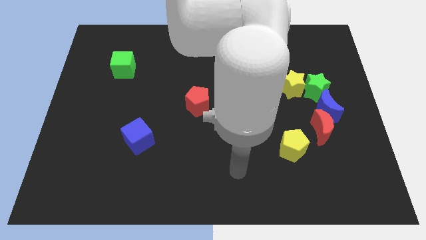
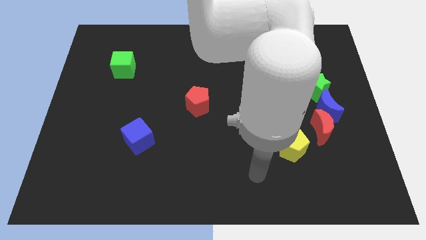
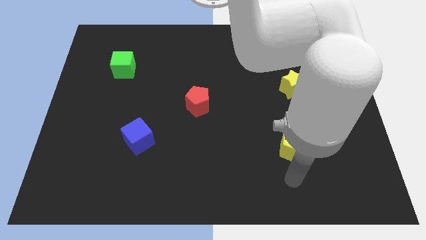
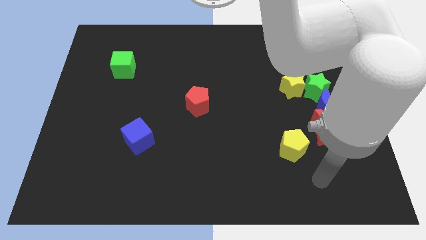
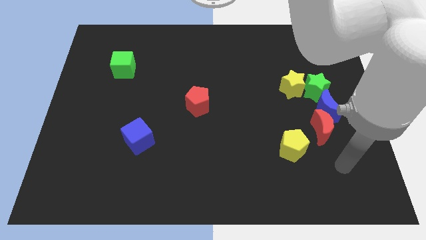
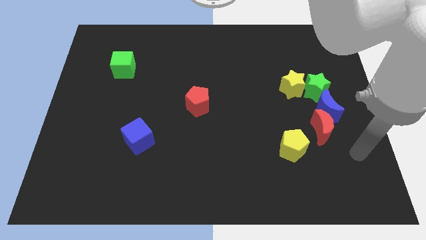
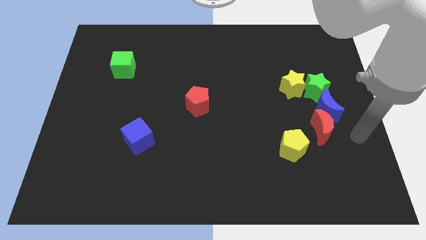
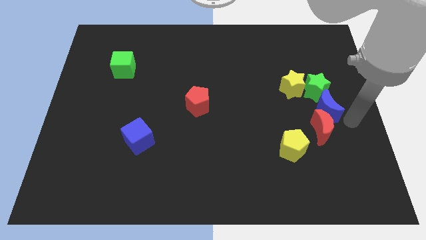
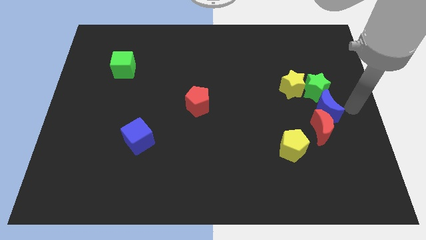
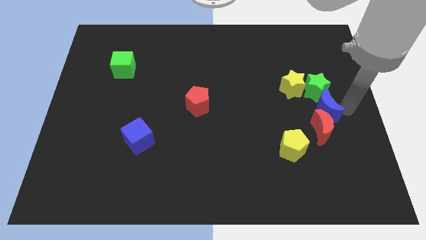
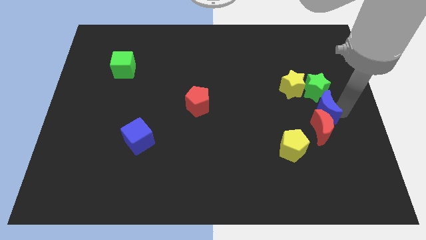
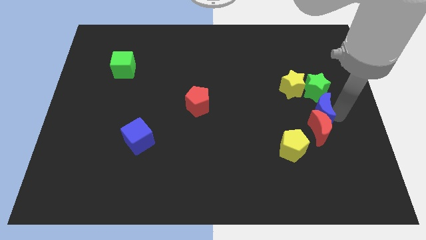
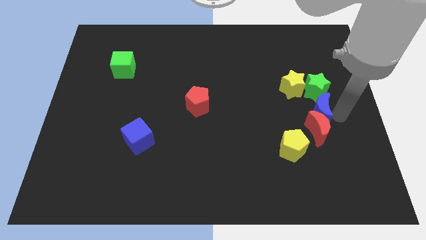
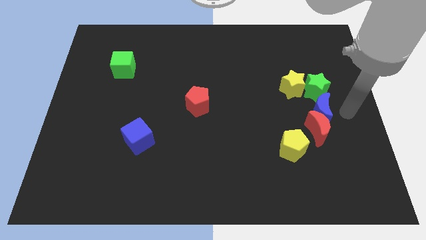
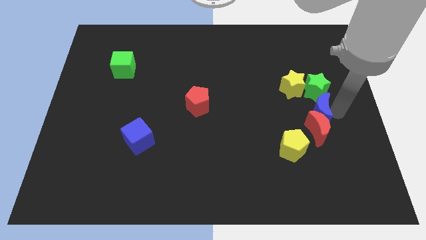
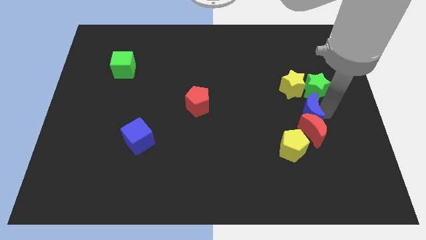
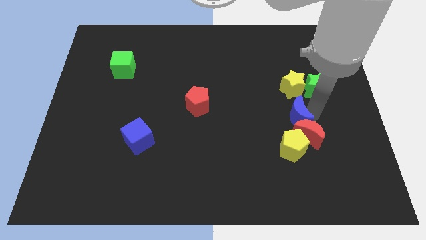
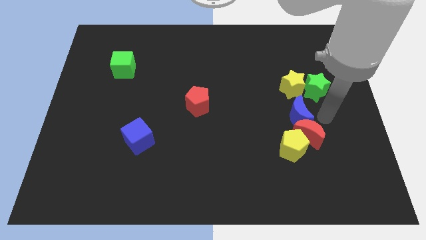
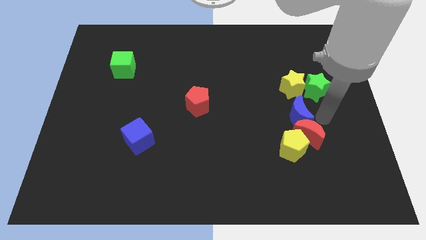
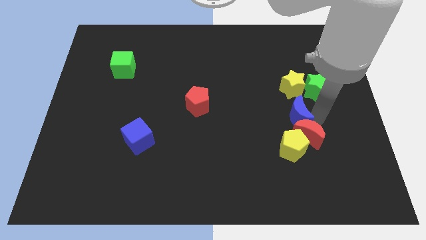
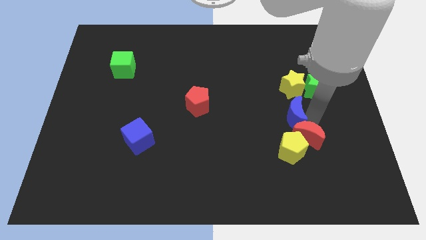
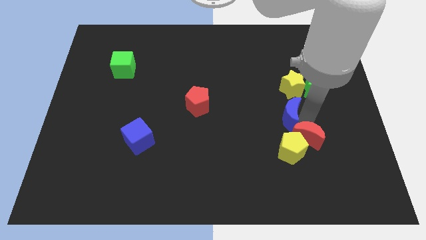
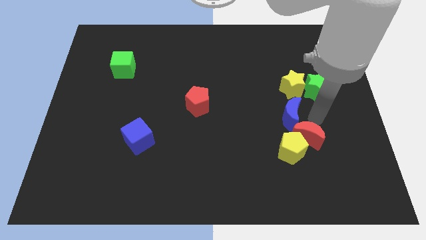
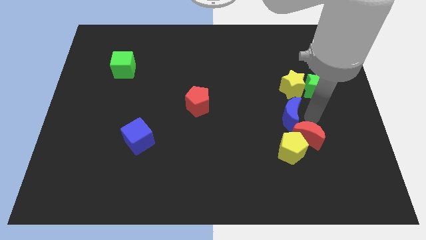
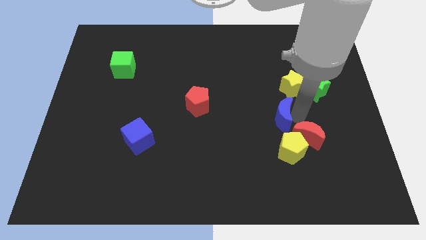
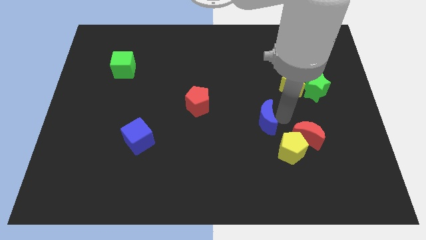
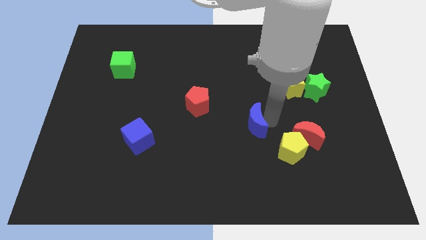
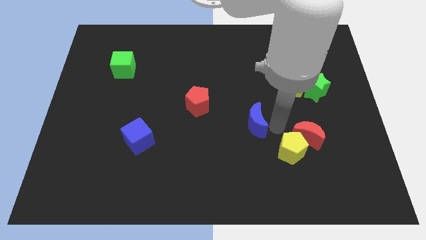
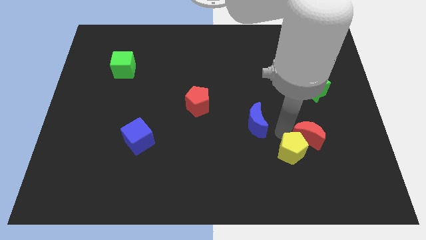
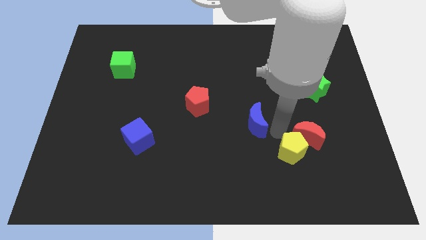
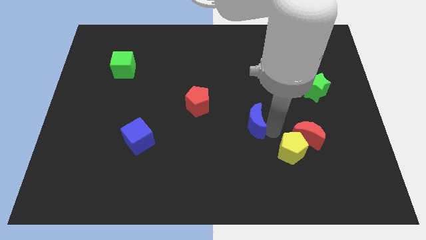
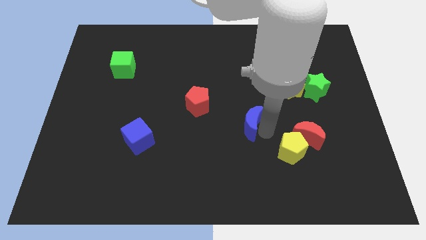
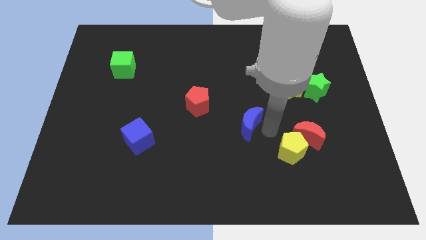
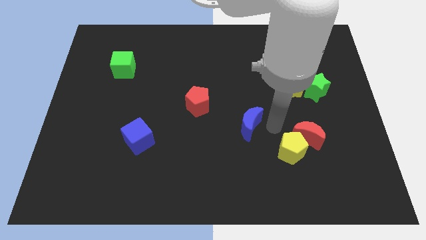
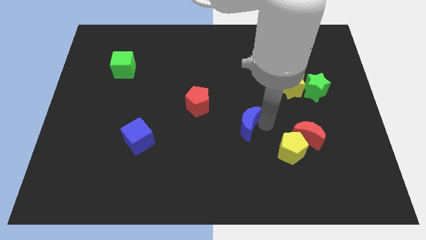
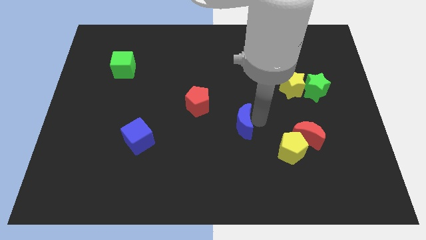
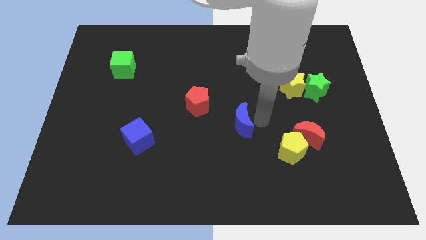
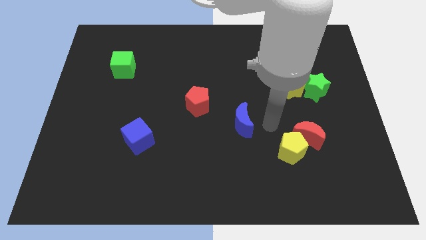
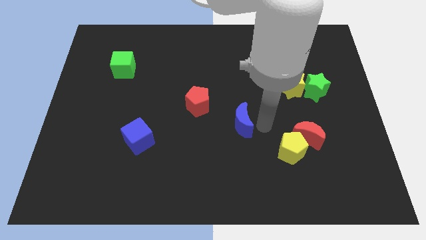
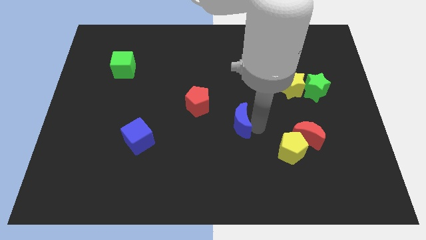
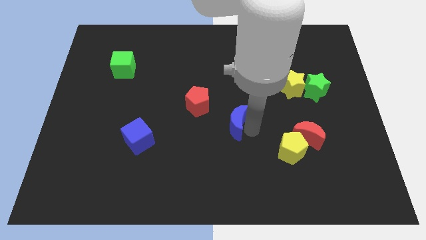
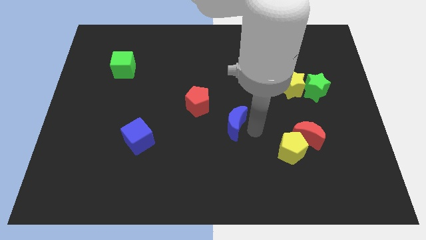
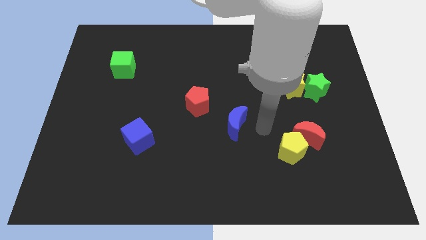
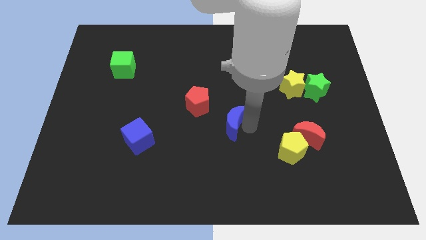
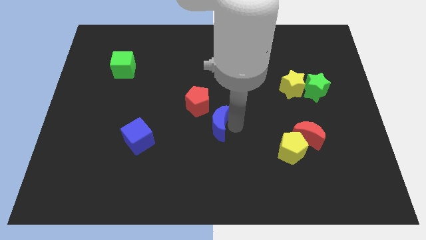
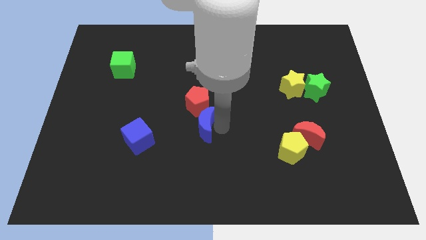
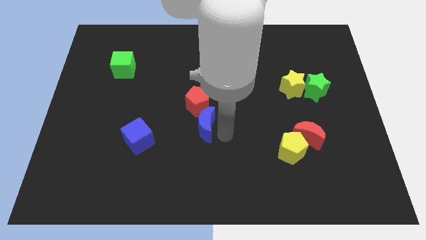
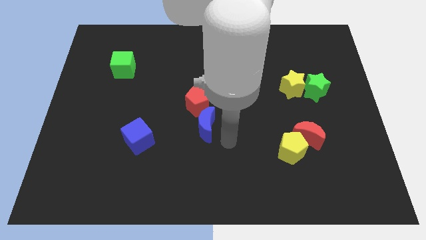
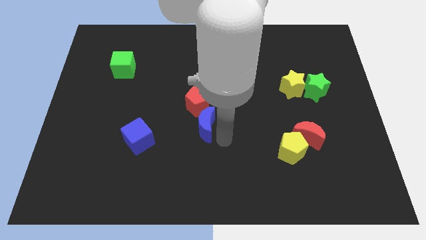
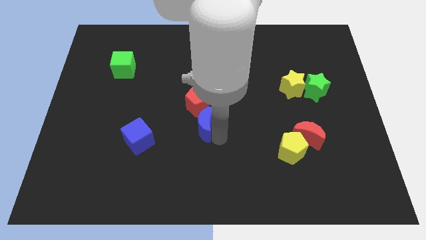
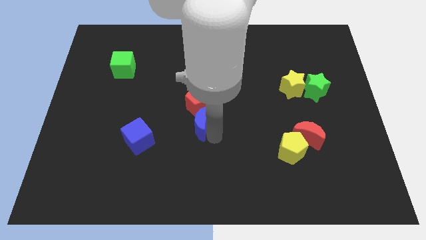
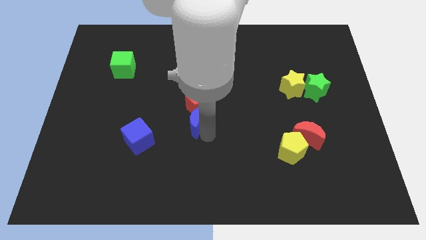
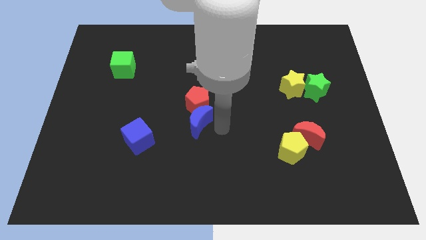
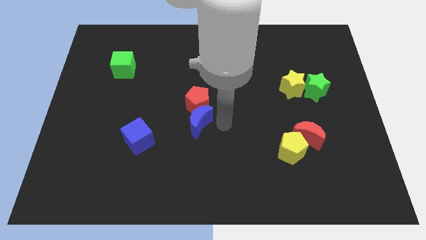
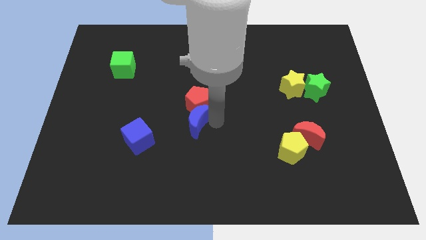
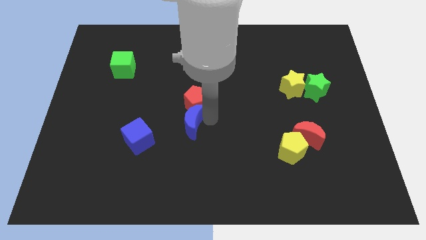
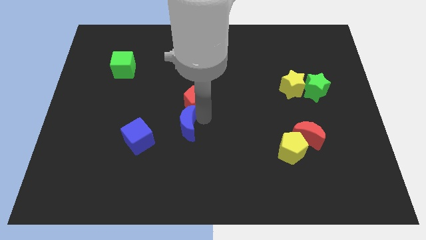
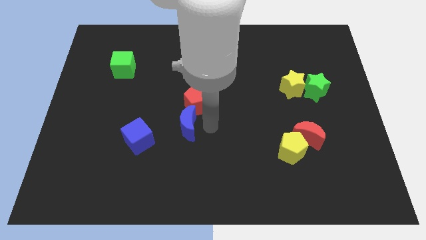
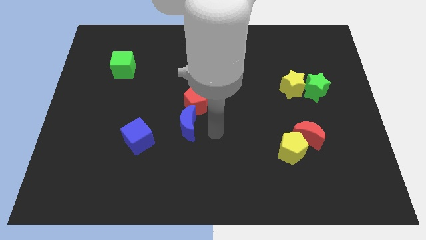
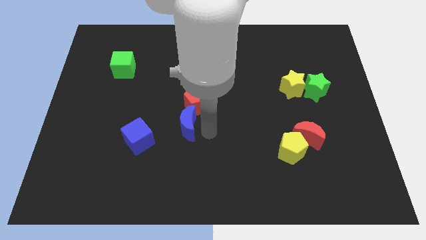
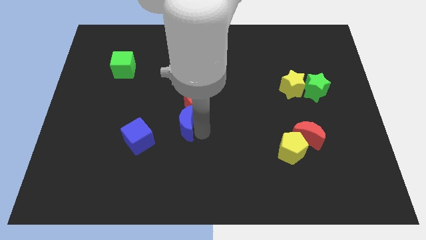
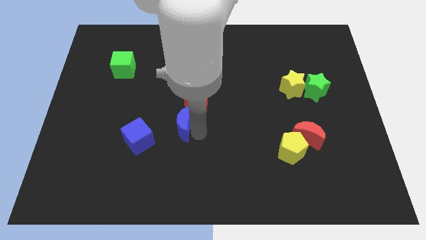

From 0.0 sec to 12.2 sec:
move the blue moon diagonally up and to the right of the blue cube

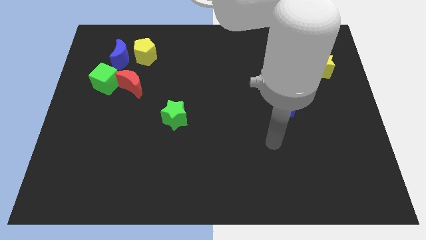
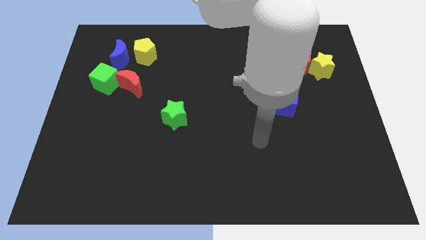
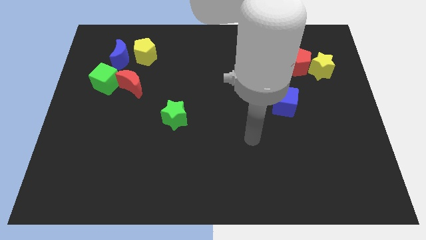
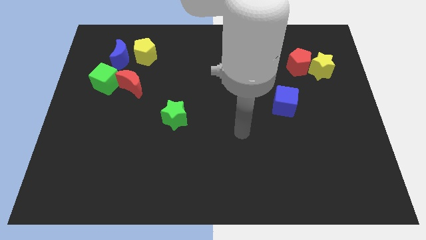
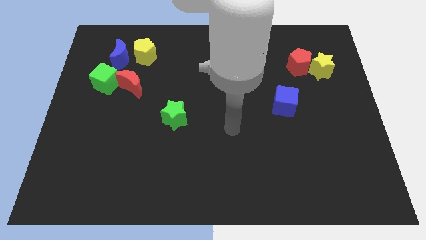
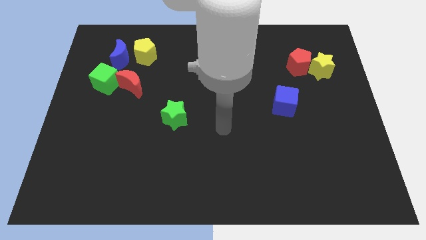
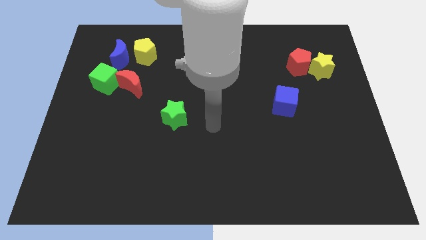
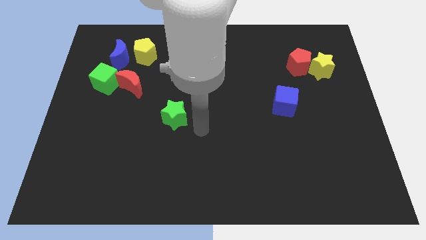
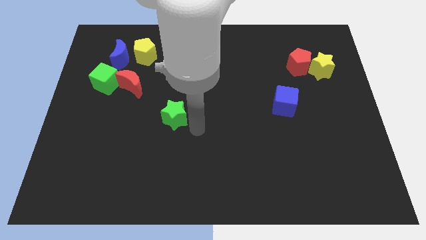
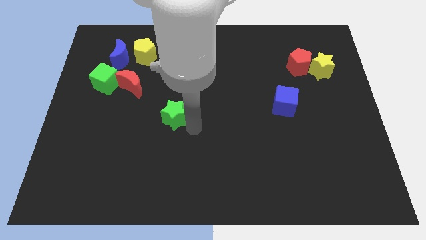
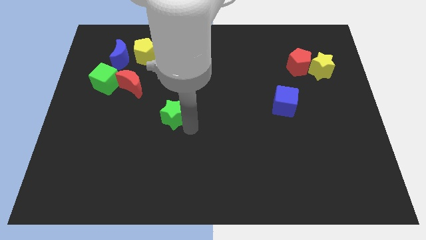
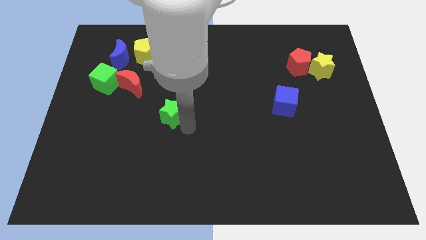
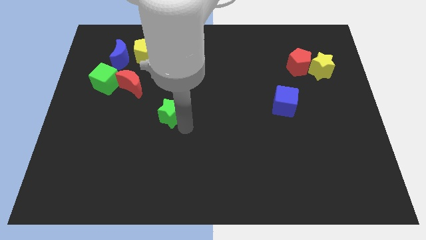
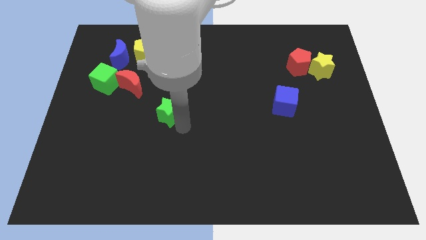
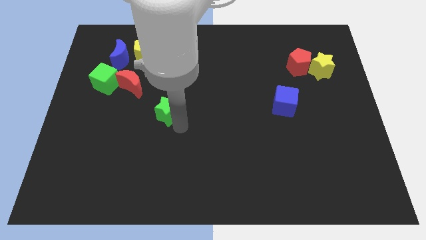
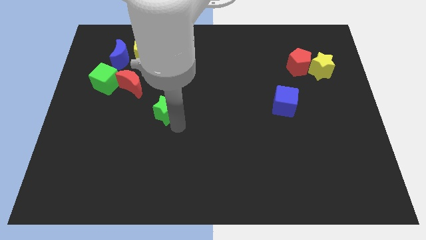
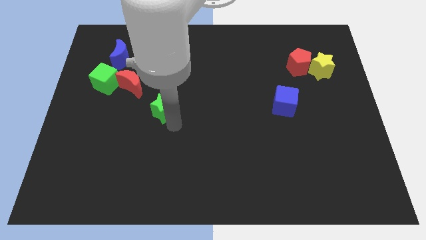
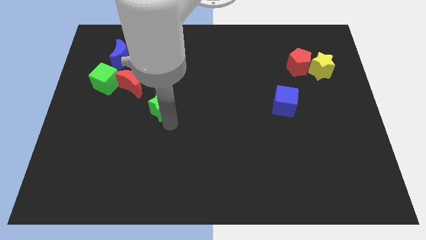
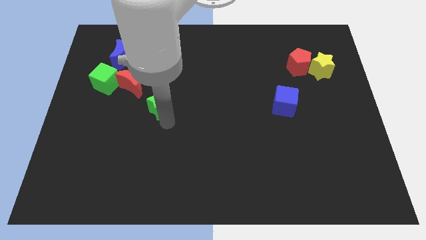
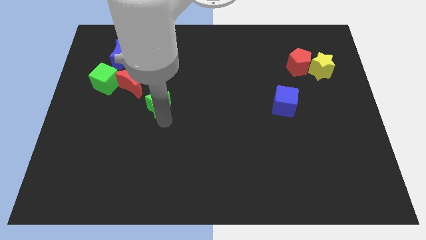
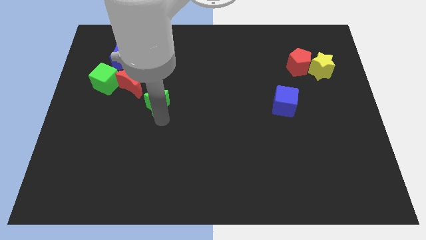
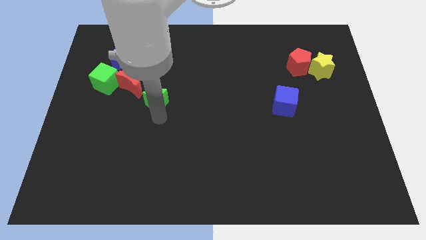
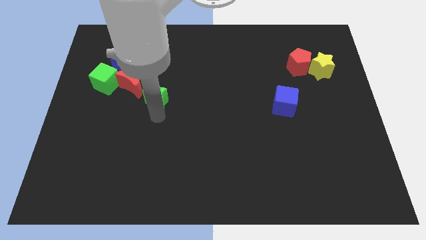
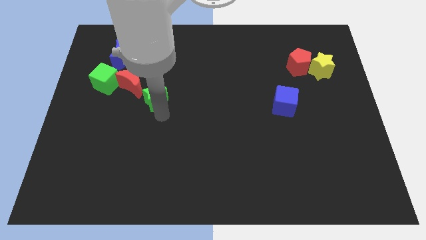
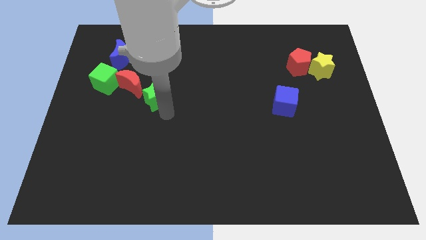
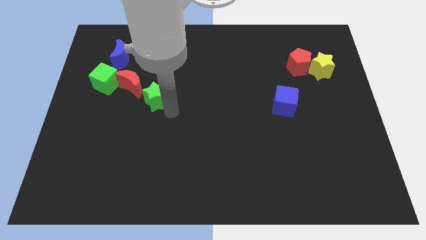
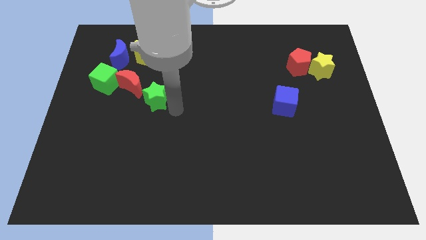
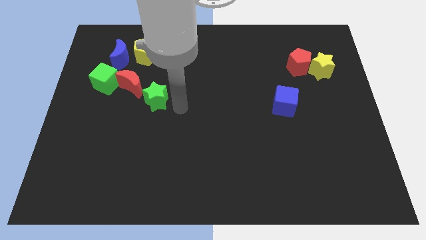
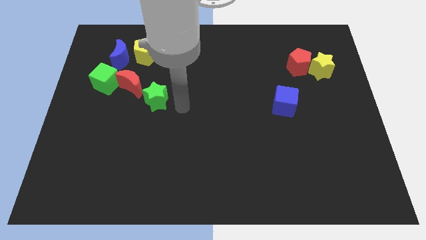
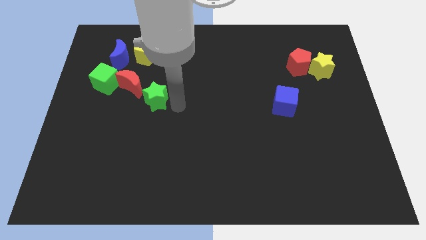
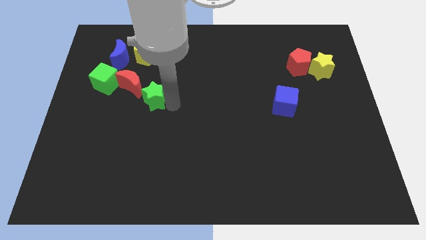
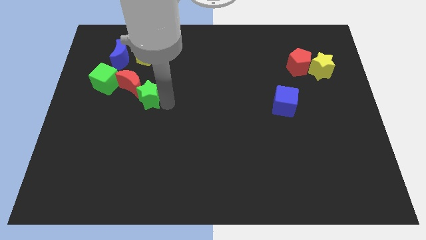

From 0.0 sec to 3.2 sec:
move the green star to the bottom side of the yellow pentagon
